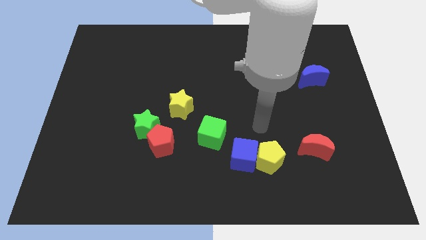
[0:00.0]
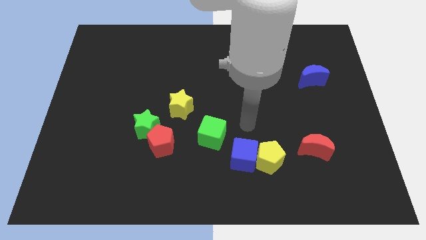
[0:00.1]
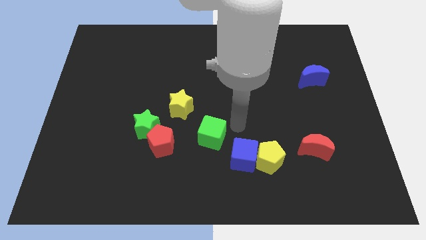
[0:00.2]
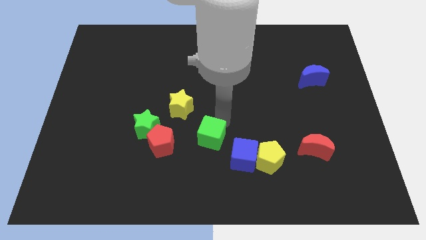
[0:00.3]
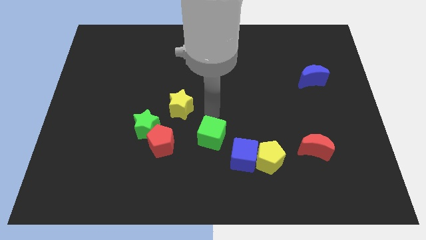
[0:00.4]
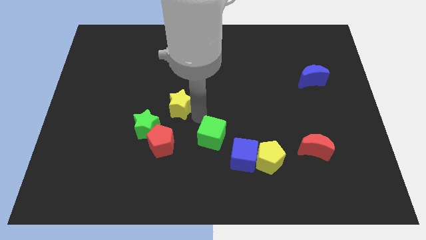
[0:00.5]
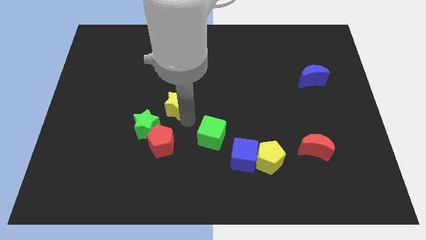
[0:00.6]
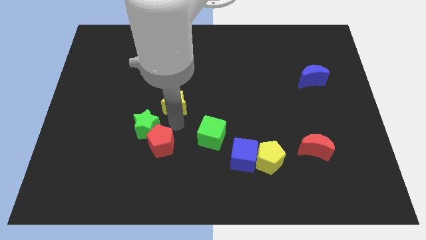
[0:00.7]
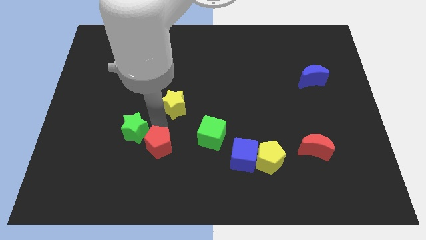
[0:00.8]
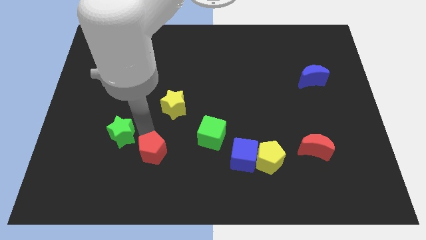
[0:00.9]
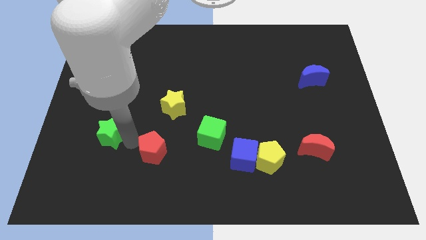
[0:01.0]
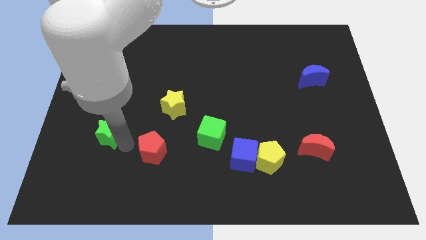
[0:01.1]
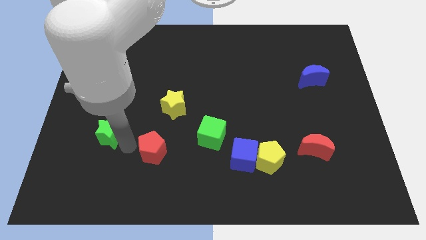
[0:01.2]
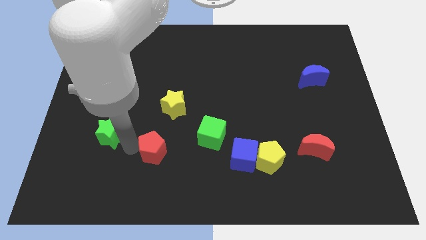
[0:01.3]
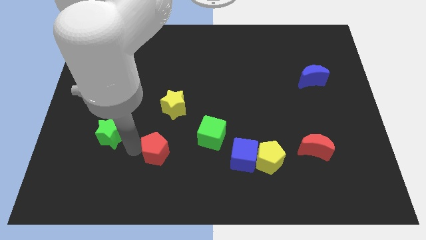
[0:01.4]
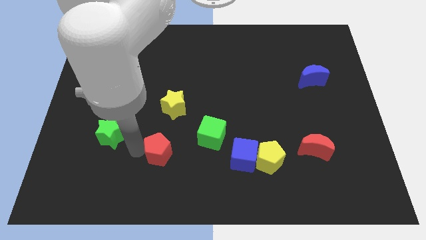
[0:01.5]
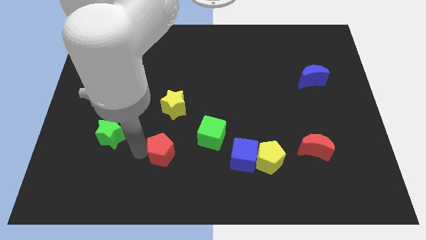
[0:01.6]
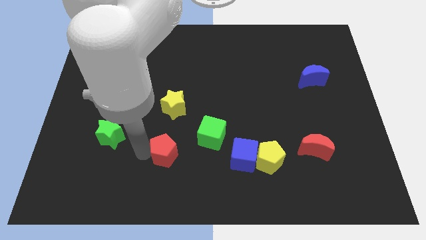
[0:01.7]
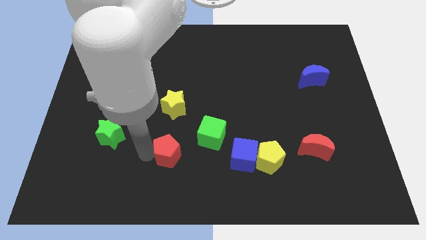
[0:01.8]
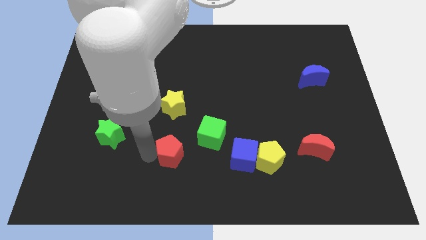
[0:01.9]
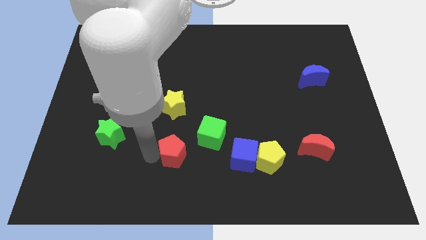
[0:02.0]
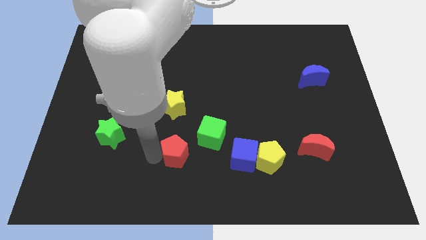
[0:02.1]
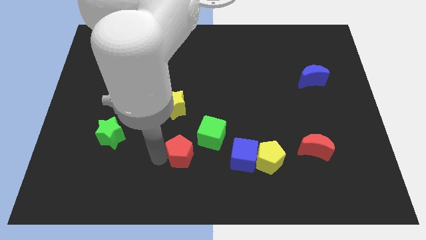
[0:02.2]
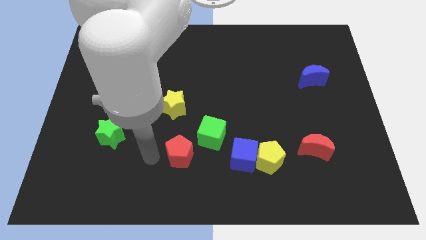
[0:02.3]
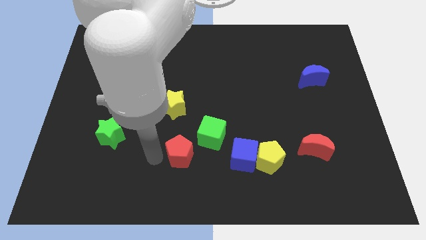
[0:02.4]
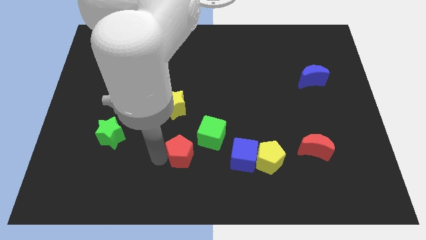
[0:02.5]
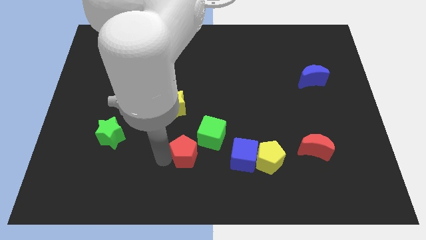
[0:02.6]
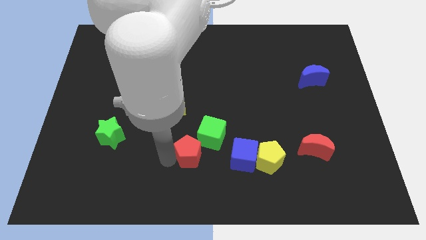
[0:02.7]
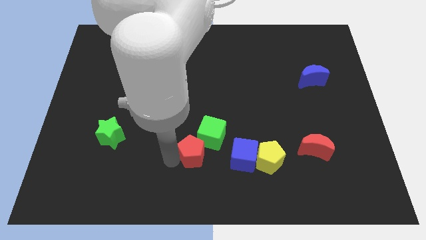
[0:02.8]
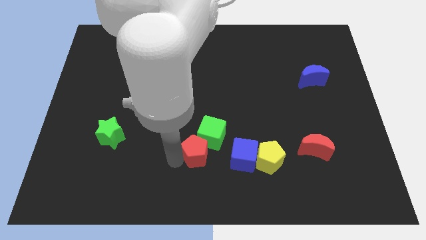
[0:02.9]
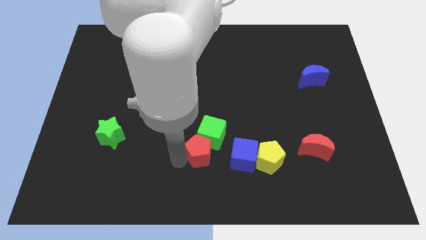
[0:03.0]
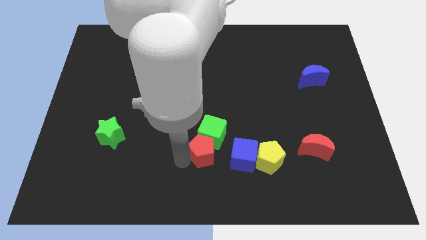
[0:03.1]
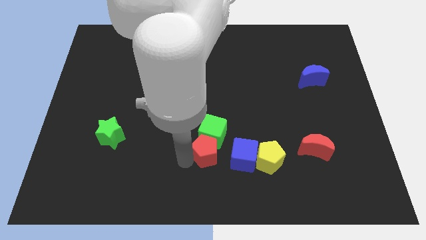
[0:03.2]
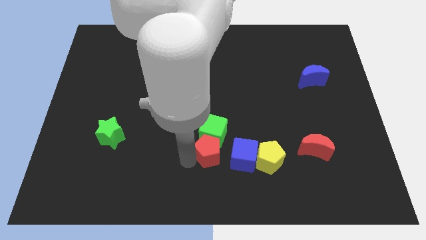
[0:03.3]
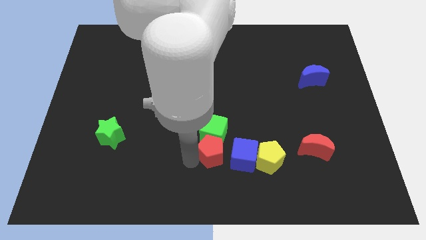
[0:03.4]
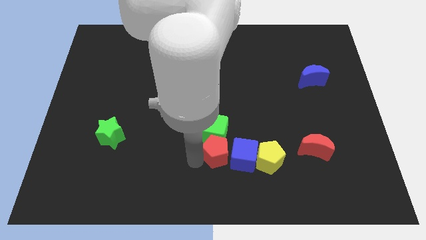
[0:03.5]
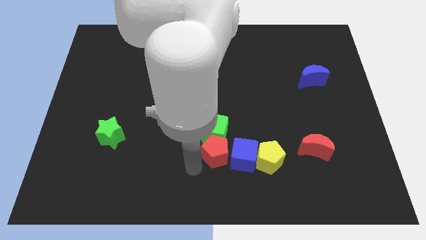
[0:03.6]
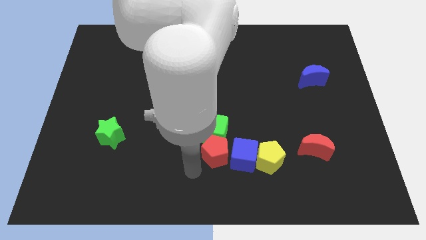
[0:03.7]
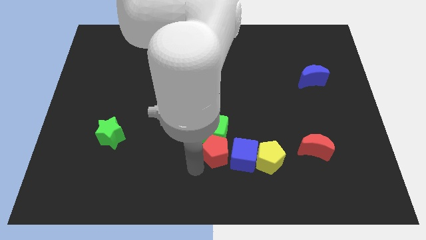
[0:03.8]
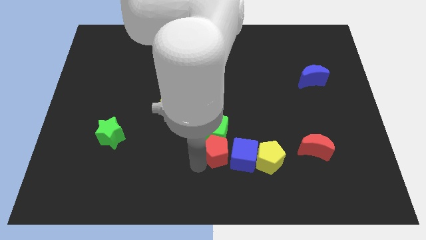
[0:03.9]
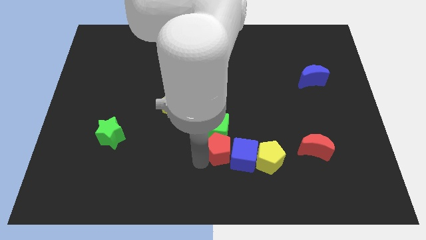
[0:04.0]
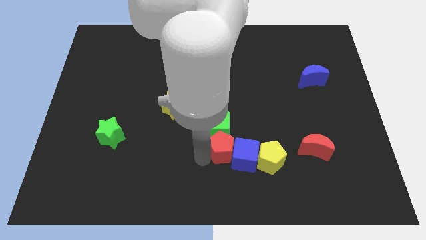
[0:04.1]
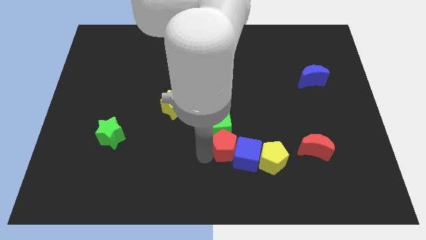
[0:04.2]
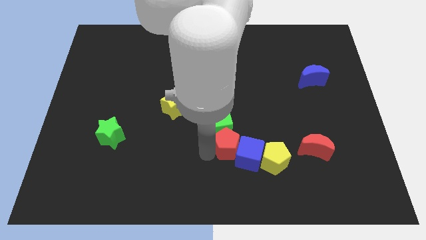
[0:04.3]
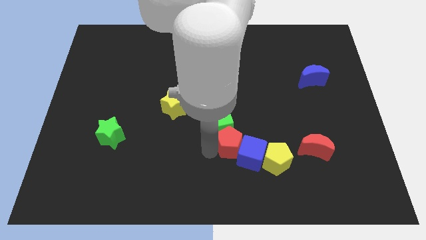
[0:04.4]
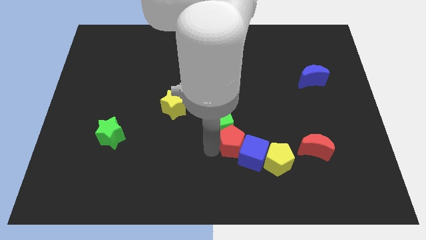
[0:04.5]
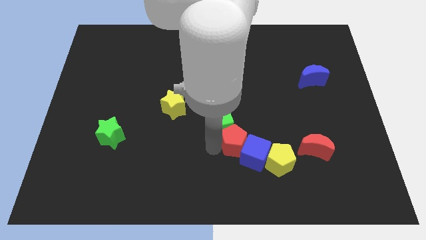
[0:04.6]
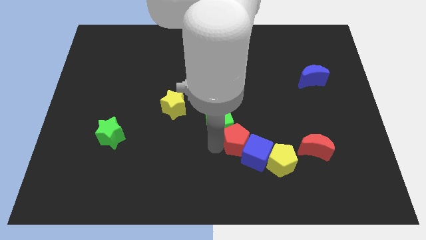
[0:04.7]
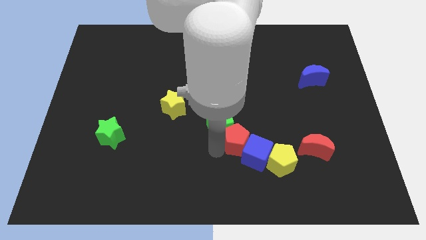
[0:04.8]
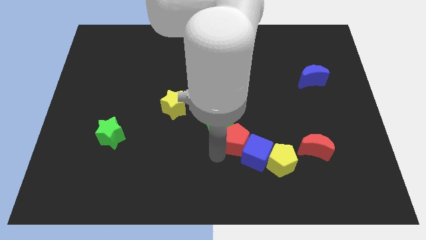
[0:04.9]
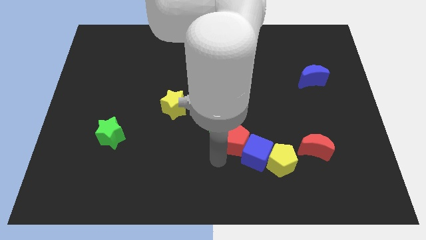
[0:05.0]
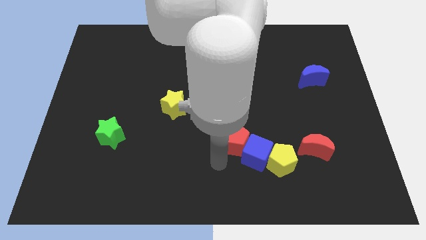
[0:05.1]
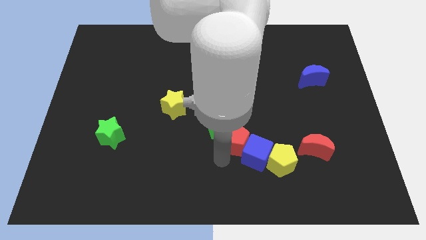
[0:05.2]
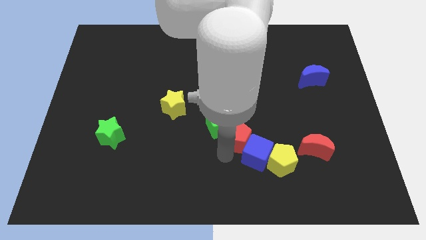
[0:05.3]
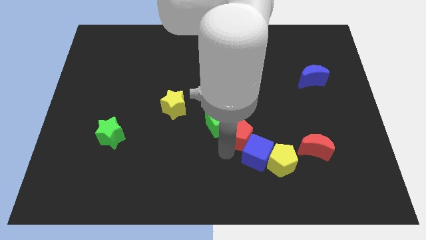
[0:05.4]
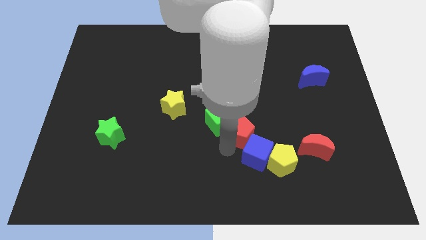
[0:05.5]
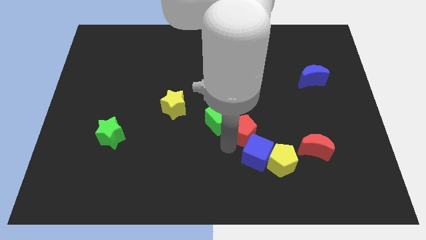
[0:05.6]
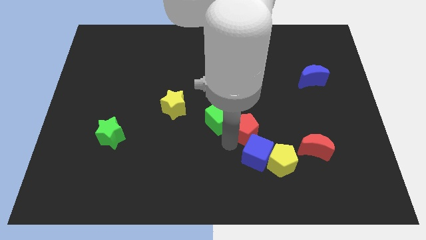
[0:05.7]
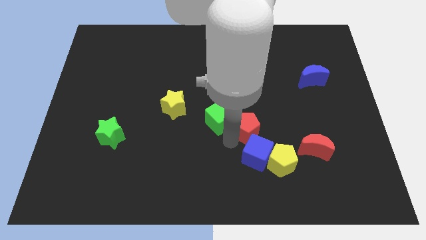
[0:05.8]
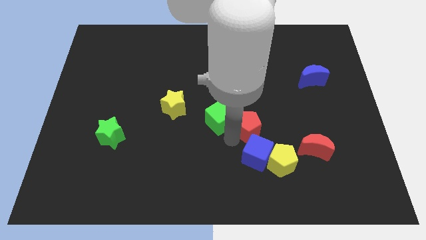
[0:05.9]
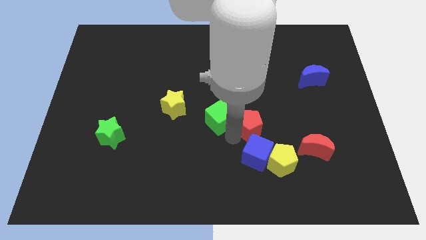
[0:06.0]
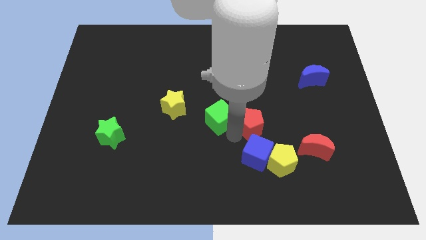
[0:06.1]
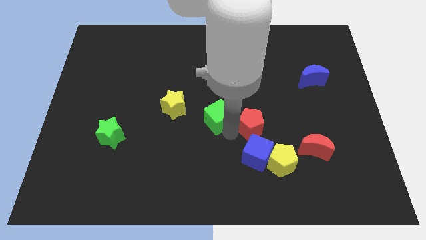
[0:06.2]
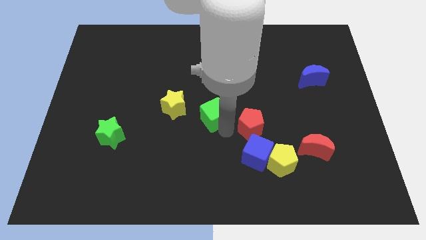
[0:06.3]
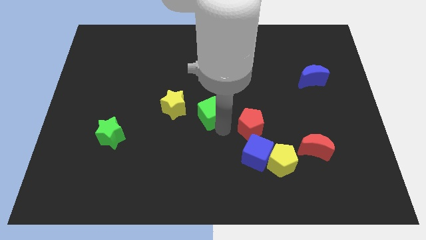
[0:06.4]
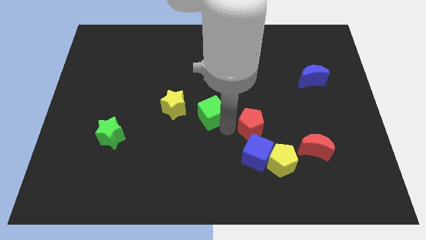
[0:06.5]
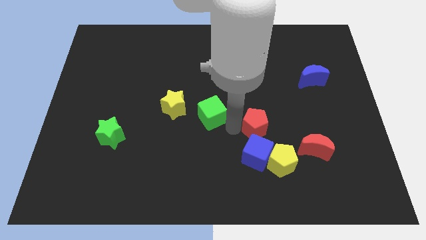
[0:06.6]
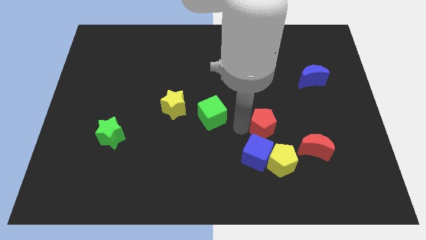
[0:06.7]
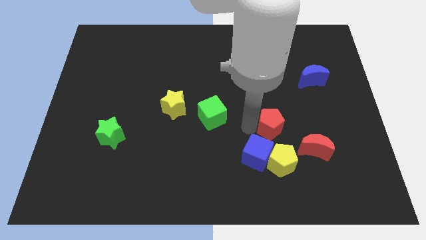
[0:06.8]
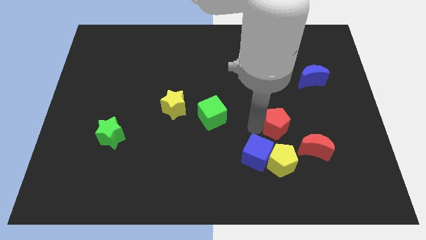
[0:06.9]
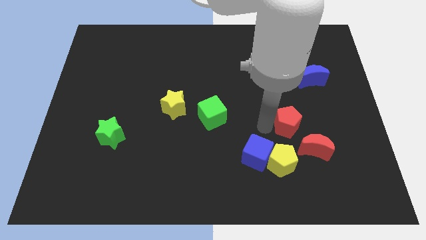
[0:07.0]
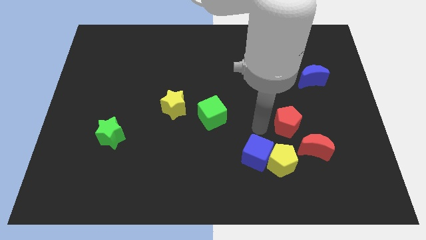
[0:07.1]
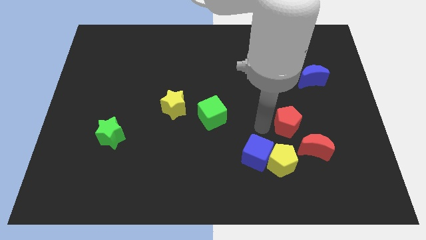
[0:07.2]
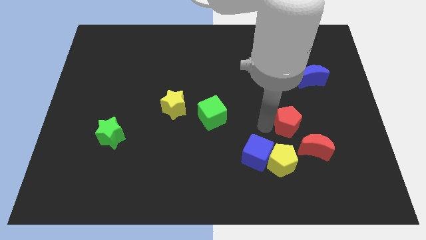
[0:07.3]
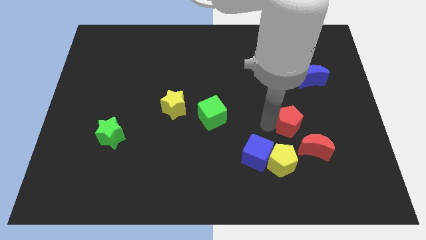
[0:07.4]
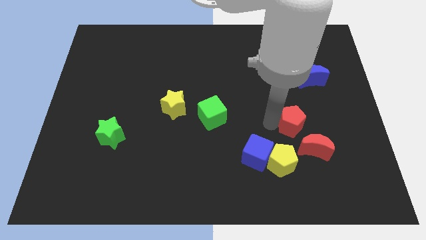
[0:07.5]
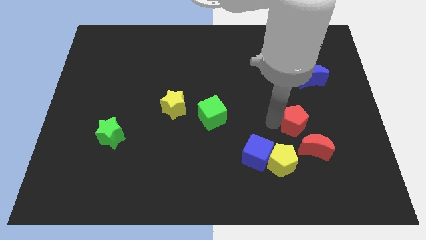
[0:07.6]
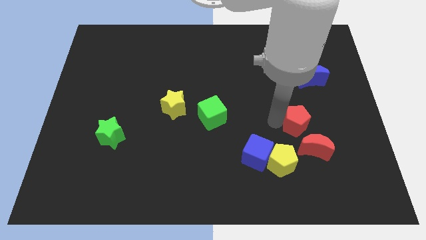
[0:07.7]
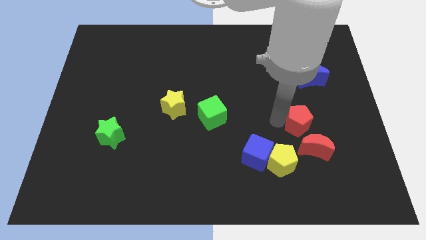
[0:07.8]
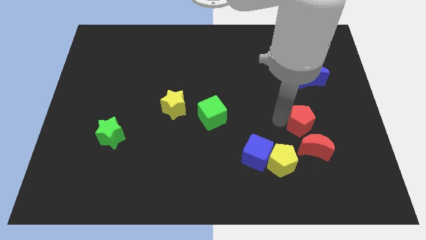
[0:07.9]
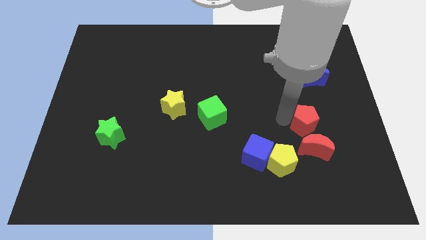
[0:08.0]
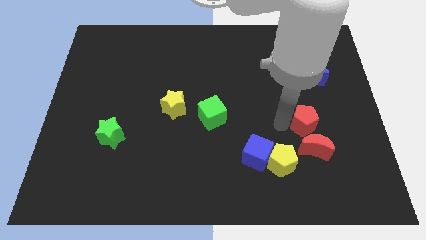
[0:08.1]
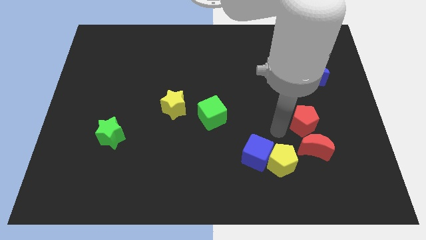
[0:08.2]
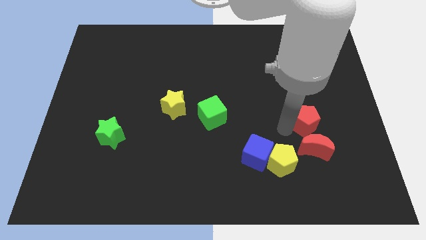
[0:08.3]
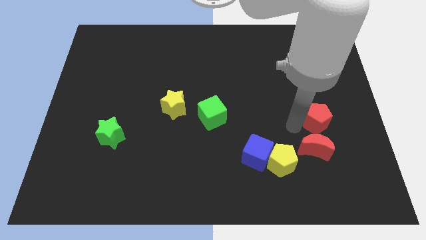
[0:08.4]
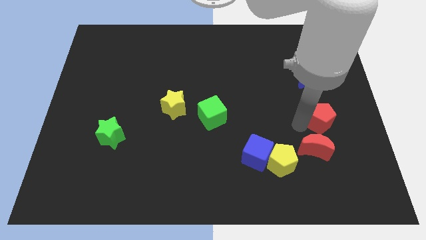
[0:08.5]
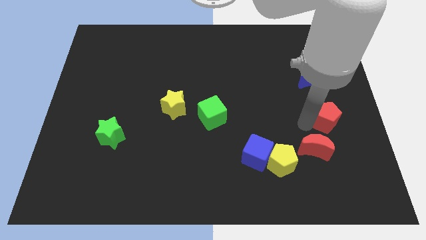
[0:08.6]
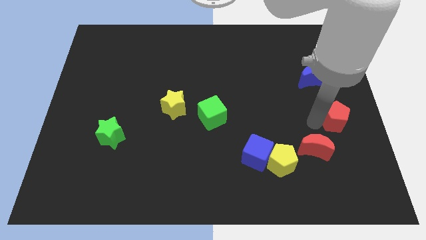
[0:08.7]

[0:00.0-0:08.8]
put the red pentagon to the right side of the board
